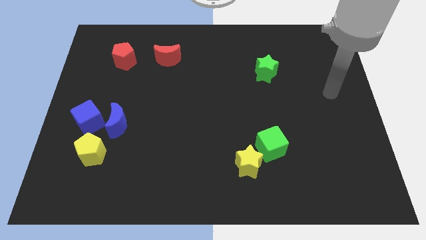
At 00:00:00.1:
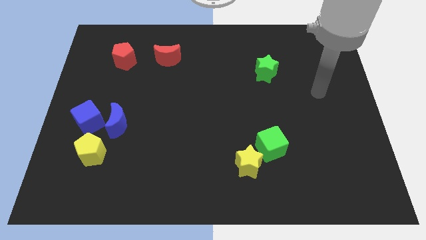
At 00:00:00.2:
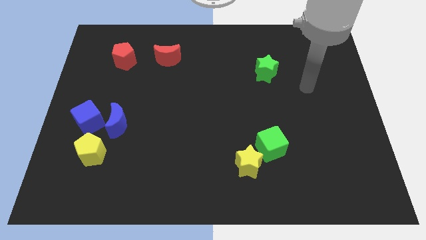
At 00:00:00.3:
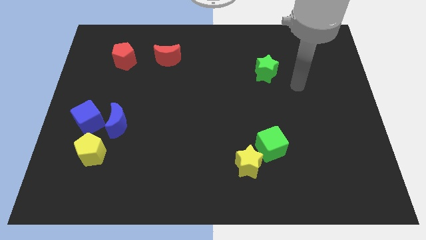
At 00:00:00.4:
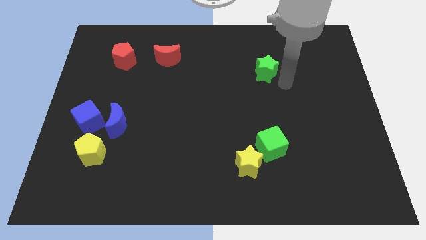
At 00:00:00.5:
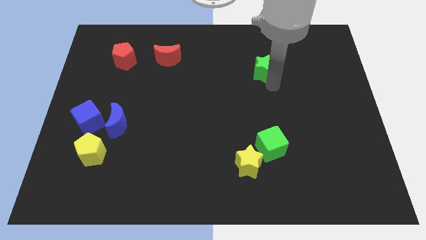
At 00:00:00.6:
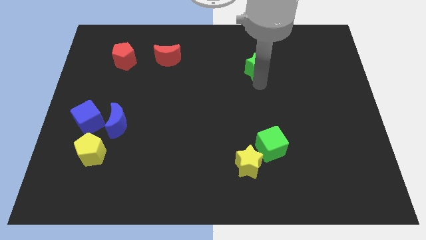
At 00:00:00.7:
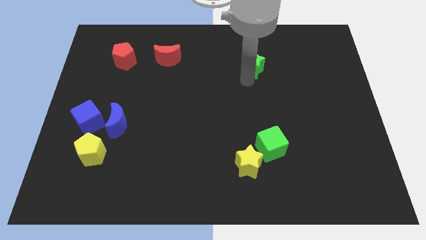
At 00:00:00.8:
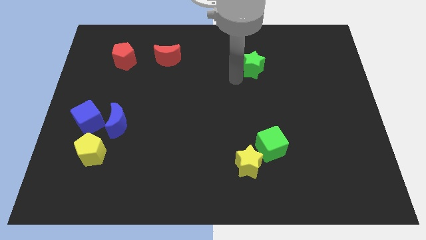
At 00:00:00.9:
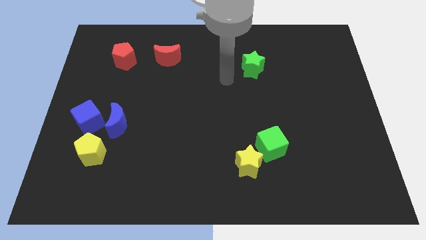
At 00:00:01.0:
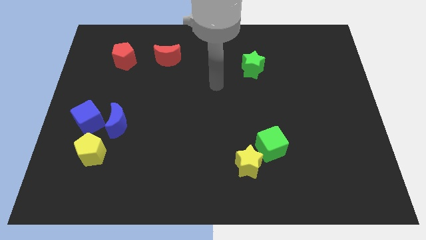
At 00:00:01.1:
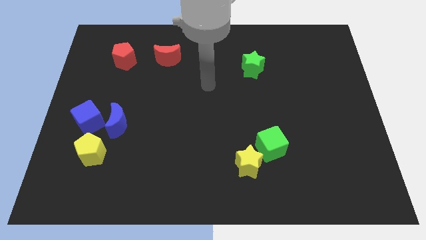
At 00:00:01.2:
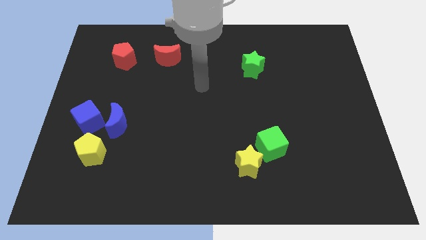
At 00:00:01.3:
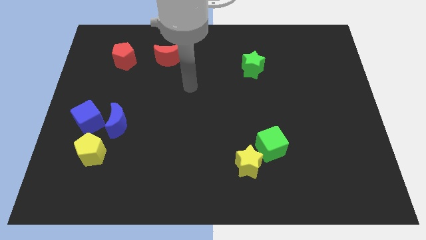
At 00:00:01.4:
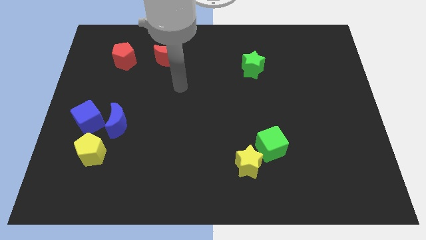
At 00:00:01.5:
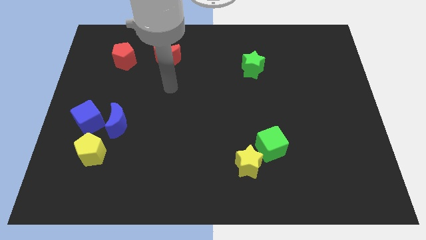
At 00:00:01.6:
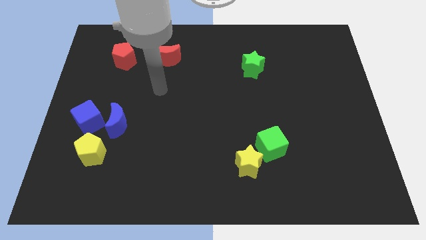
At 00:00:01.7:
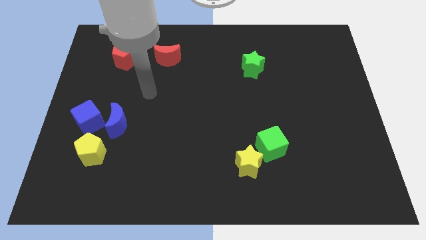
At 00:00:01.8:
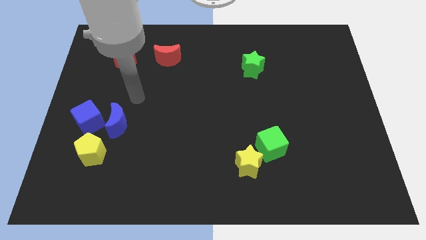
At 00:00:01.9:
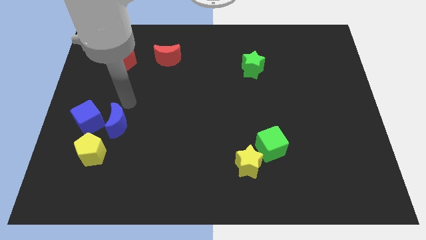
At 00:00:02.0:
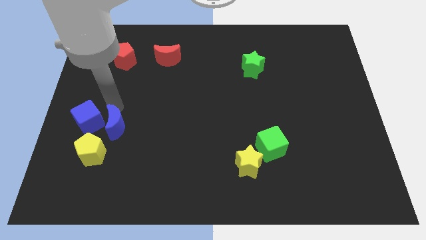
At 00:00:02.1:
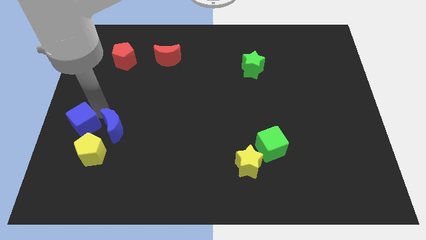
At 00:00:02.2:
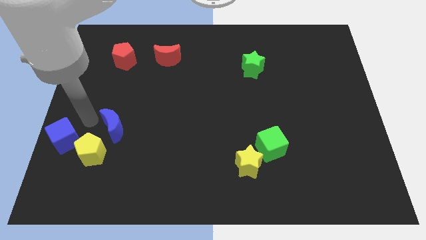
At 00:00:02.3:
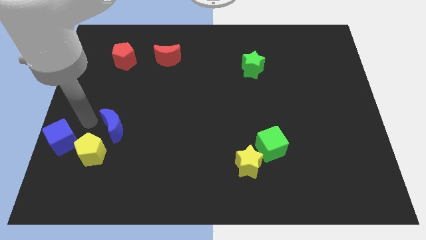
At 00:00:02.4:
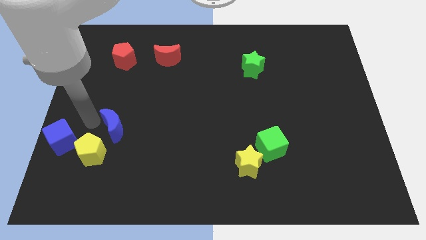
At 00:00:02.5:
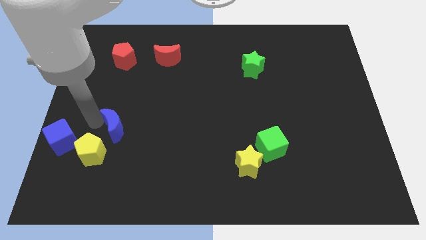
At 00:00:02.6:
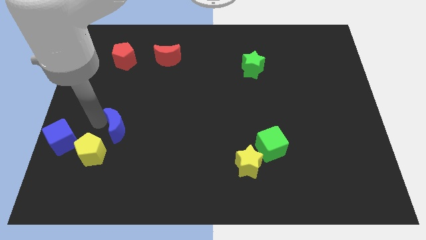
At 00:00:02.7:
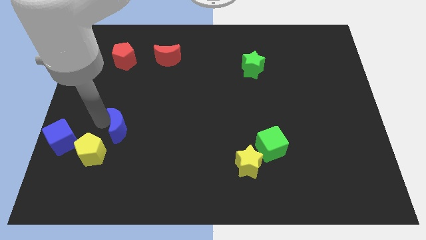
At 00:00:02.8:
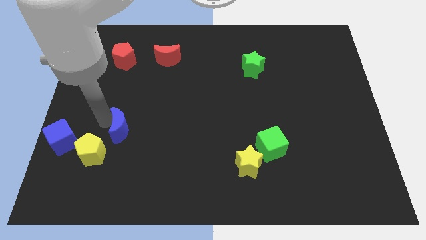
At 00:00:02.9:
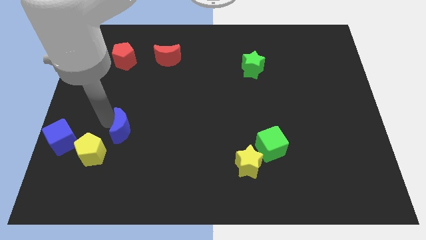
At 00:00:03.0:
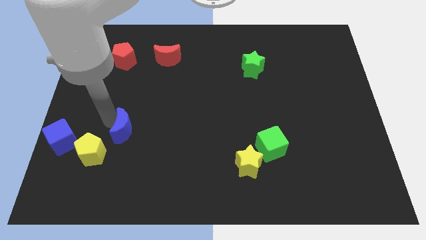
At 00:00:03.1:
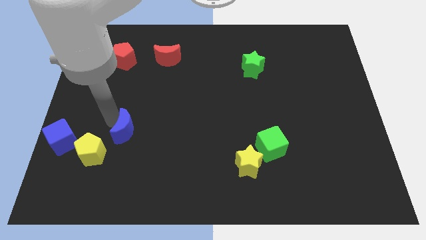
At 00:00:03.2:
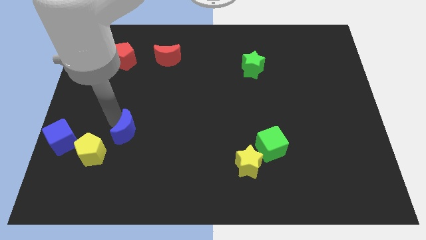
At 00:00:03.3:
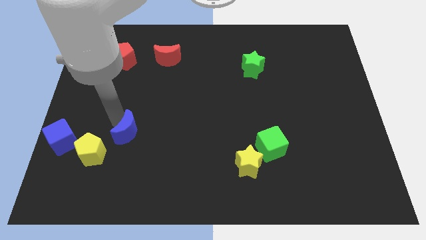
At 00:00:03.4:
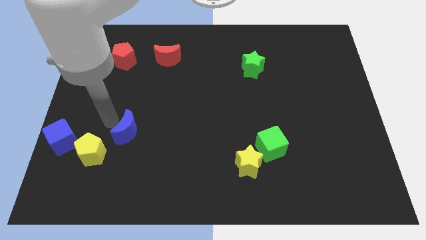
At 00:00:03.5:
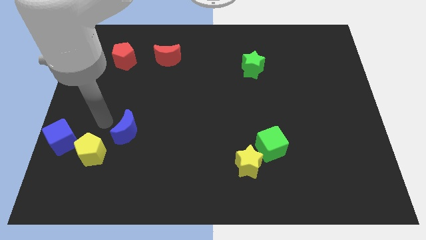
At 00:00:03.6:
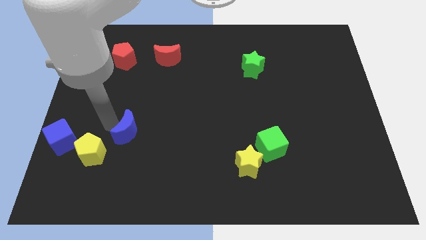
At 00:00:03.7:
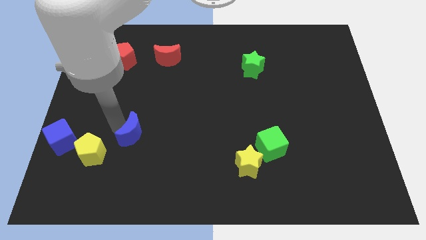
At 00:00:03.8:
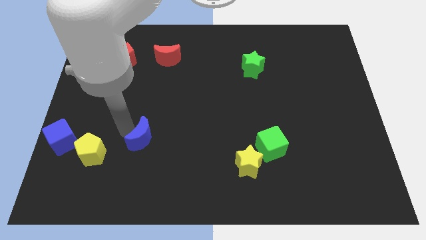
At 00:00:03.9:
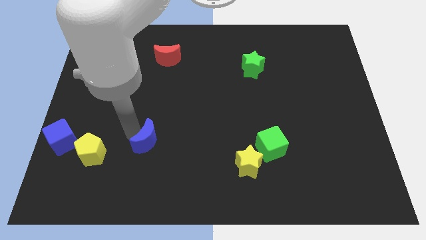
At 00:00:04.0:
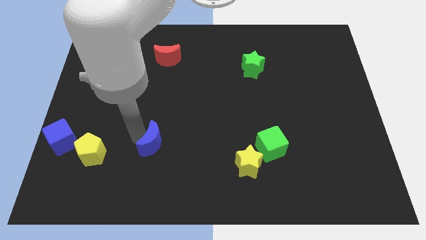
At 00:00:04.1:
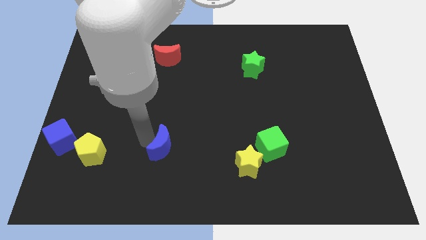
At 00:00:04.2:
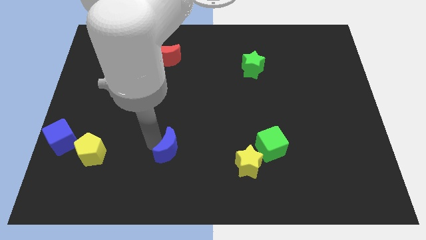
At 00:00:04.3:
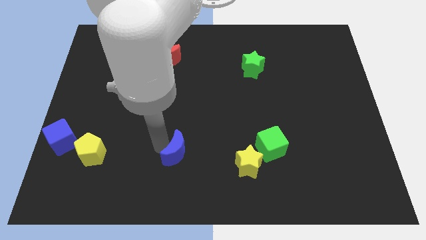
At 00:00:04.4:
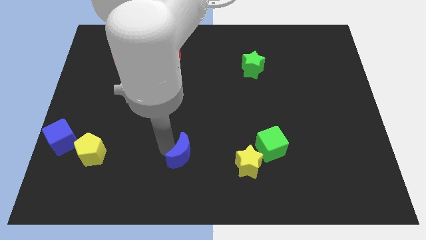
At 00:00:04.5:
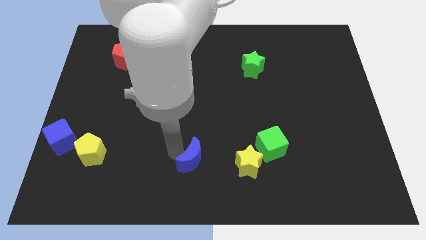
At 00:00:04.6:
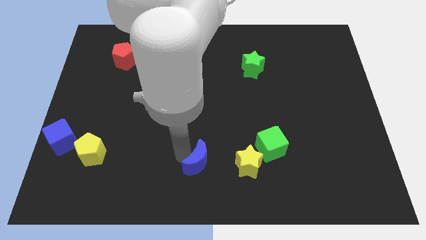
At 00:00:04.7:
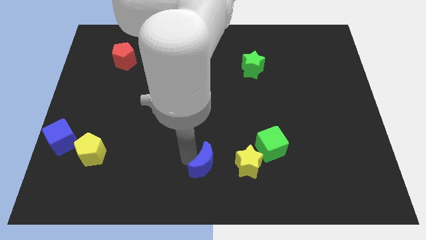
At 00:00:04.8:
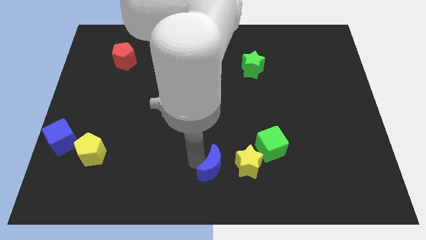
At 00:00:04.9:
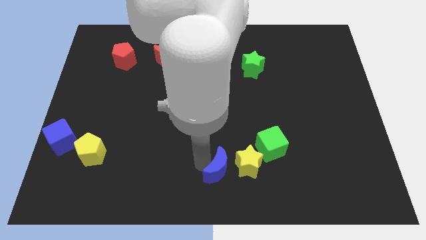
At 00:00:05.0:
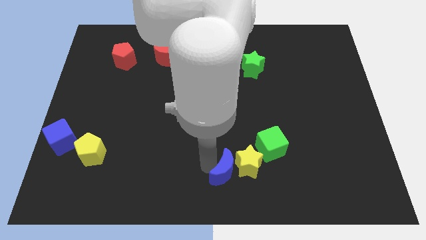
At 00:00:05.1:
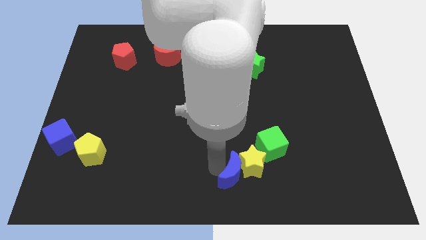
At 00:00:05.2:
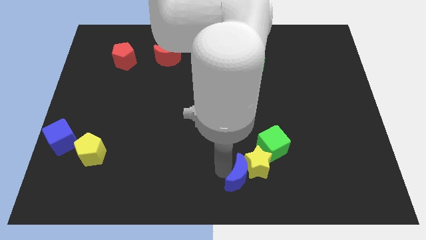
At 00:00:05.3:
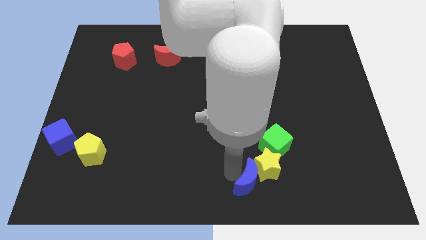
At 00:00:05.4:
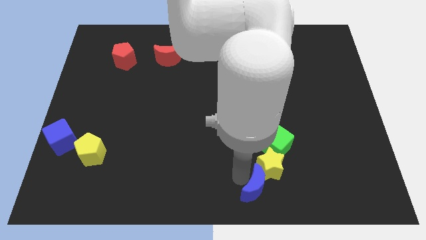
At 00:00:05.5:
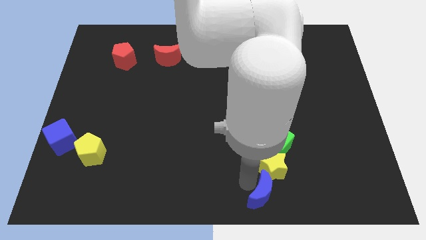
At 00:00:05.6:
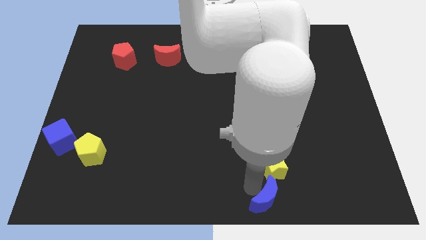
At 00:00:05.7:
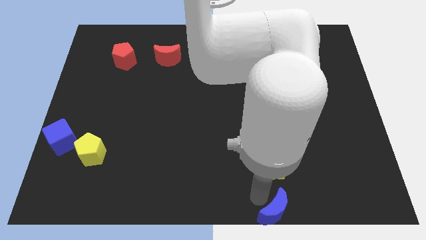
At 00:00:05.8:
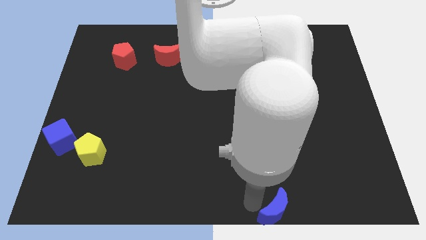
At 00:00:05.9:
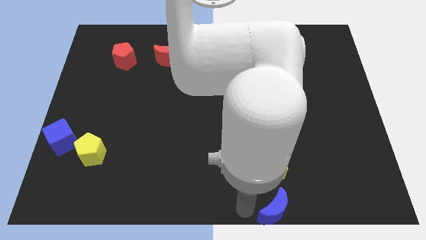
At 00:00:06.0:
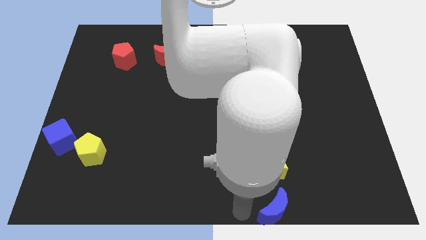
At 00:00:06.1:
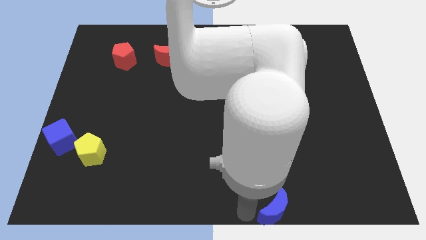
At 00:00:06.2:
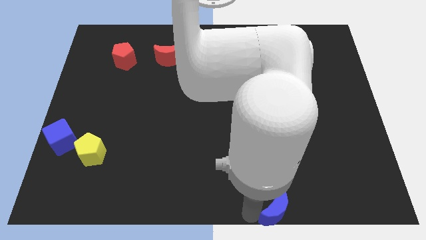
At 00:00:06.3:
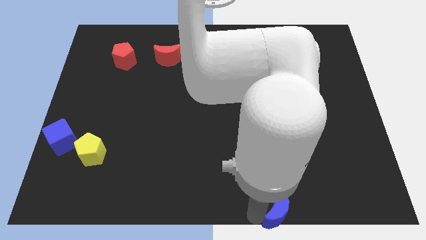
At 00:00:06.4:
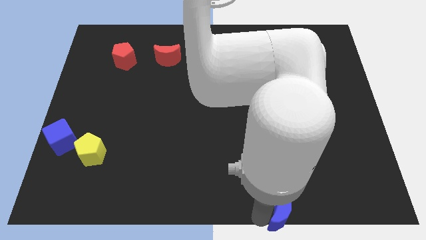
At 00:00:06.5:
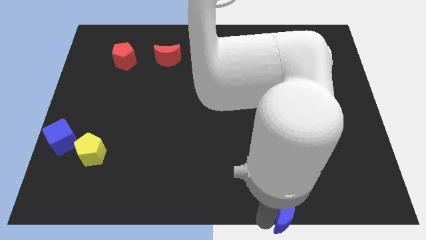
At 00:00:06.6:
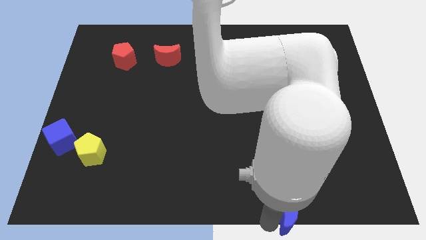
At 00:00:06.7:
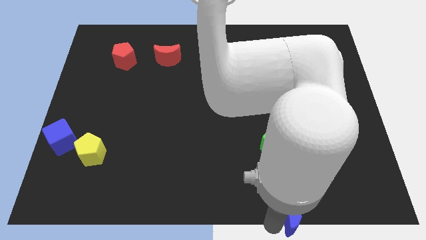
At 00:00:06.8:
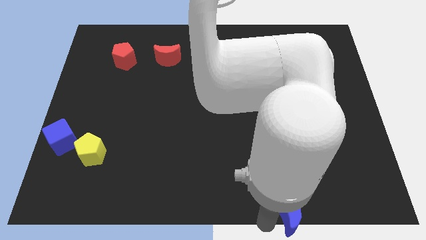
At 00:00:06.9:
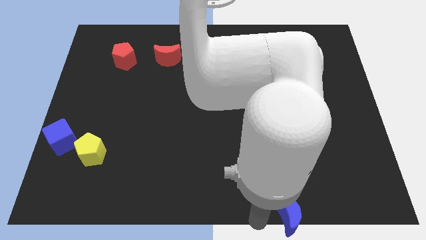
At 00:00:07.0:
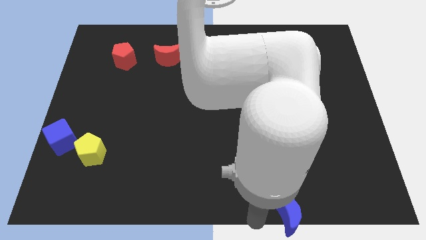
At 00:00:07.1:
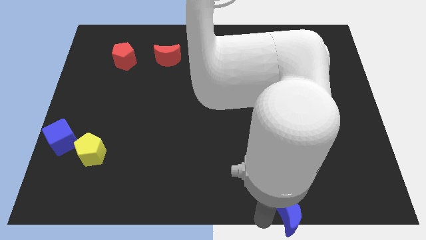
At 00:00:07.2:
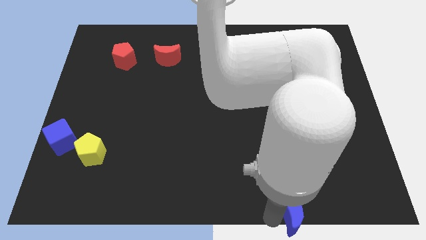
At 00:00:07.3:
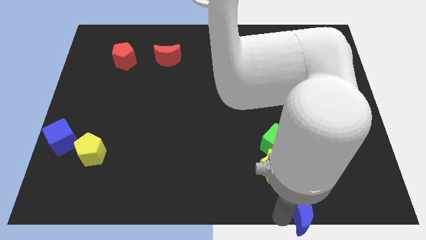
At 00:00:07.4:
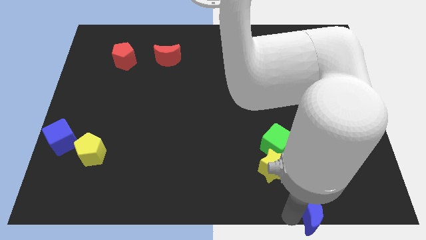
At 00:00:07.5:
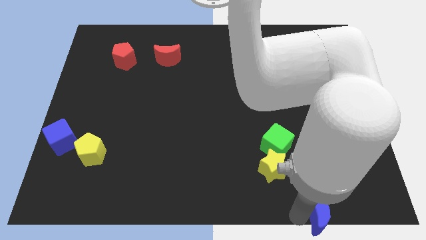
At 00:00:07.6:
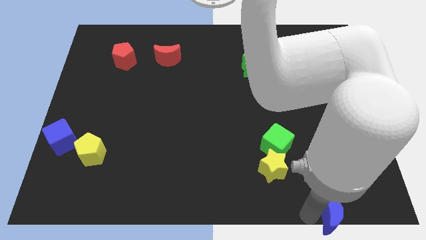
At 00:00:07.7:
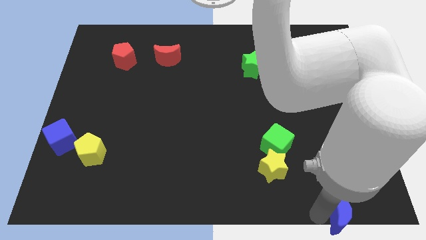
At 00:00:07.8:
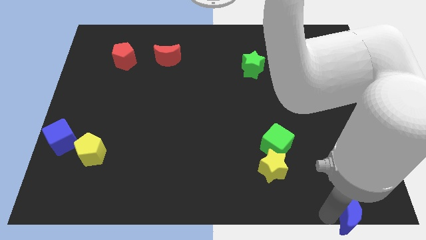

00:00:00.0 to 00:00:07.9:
push the blue moon to the bottom right of the board
